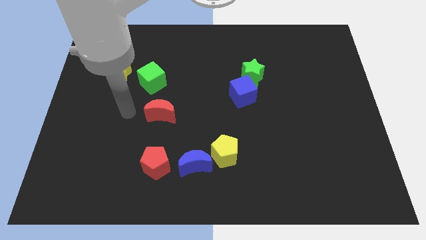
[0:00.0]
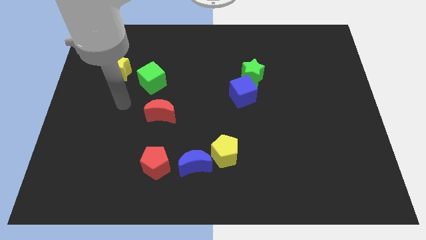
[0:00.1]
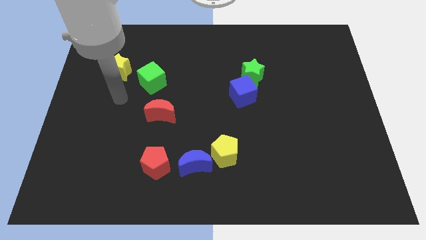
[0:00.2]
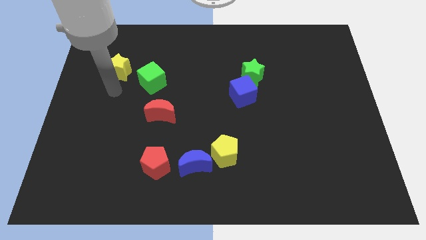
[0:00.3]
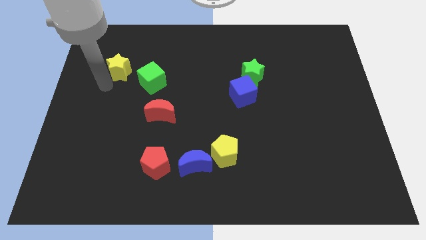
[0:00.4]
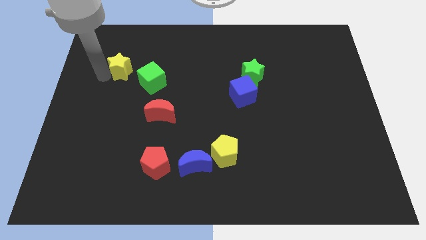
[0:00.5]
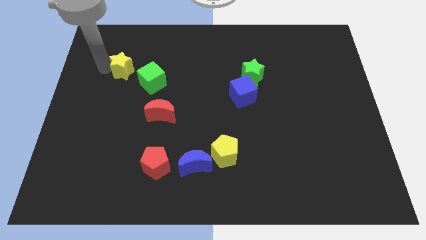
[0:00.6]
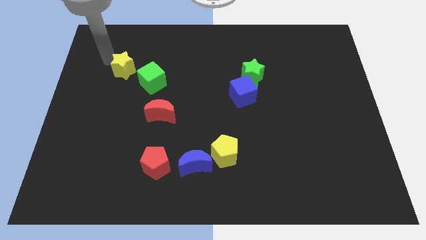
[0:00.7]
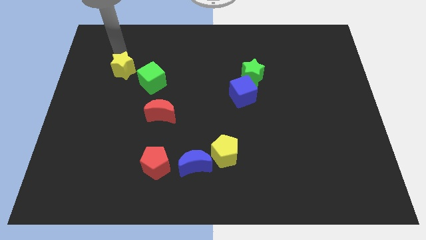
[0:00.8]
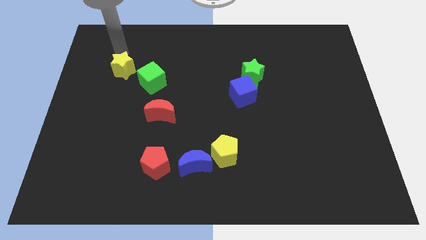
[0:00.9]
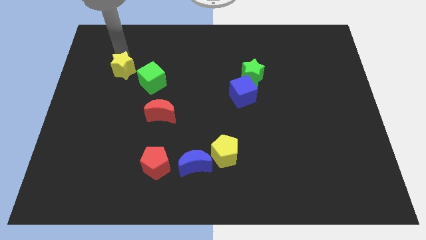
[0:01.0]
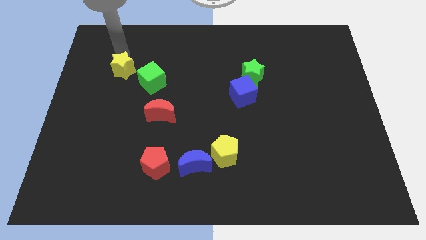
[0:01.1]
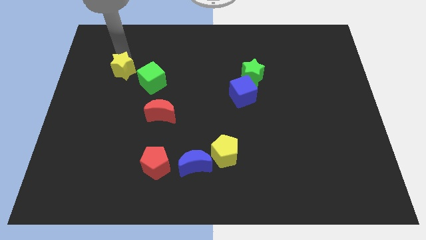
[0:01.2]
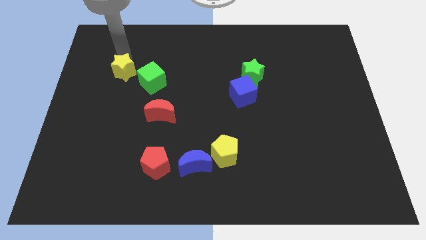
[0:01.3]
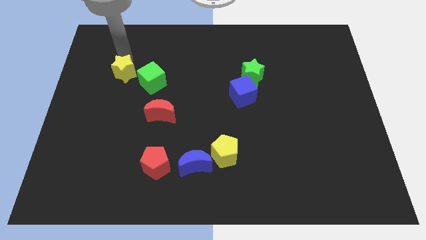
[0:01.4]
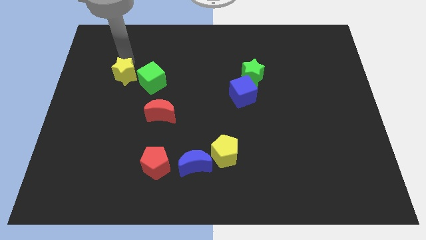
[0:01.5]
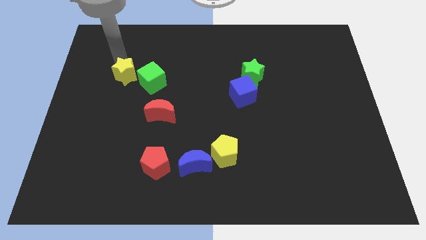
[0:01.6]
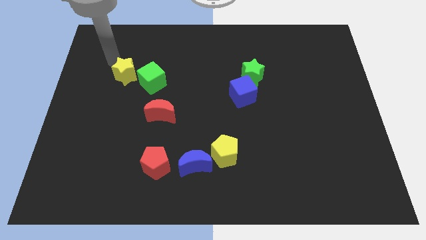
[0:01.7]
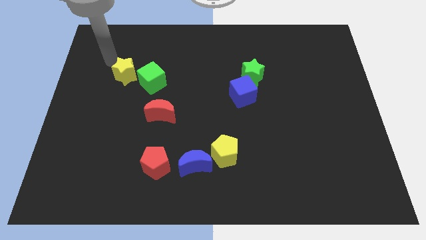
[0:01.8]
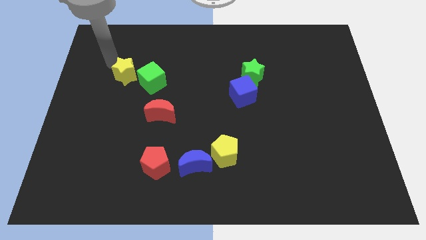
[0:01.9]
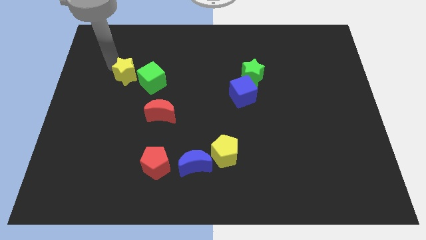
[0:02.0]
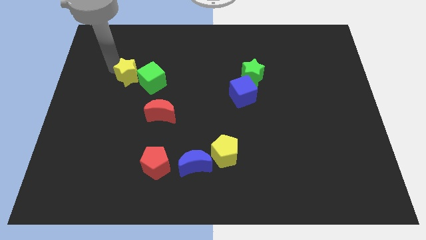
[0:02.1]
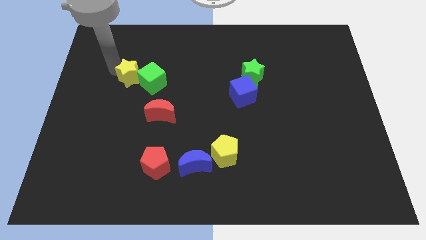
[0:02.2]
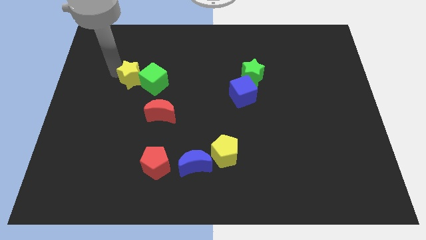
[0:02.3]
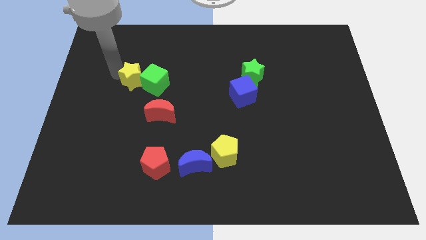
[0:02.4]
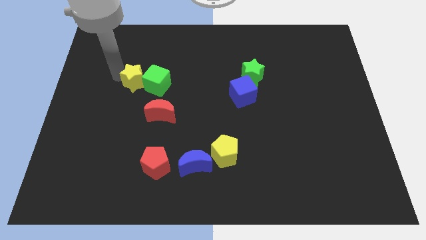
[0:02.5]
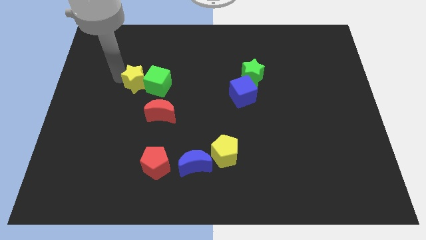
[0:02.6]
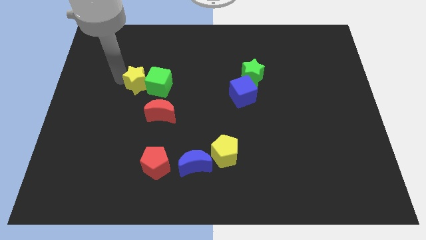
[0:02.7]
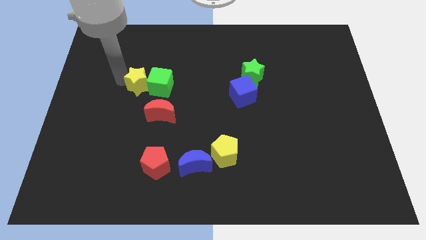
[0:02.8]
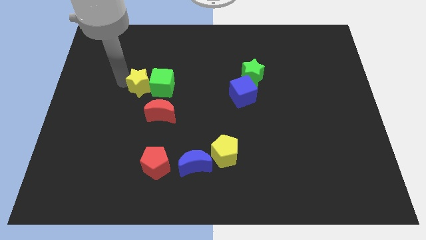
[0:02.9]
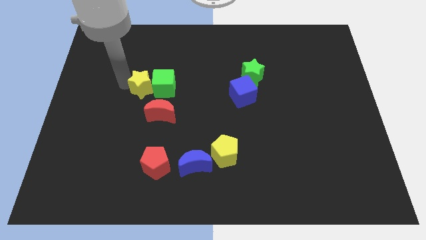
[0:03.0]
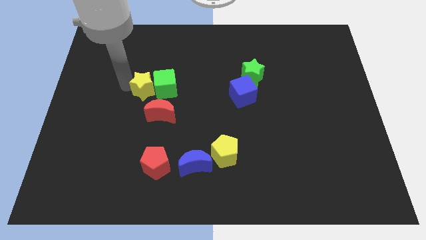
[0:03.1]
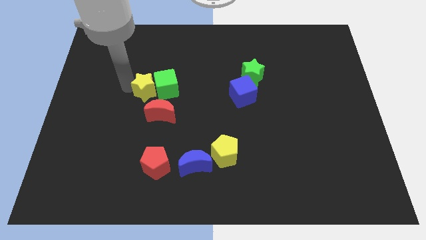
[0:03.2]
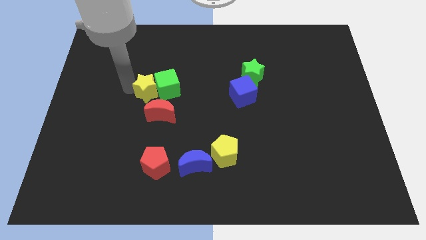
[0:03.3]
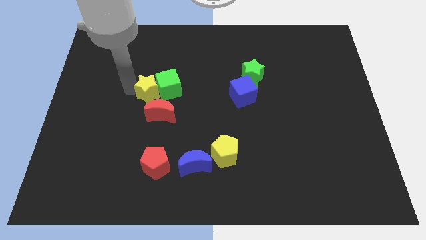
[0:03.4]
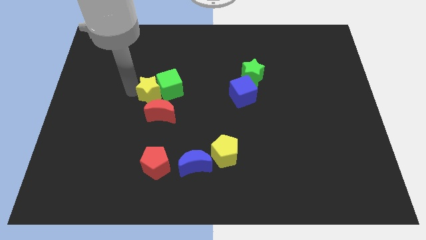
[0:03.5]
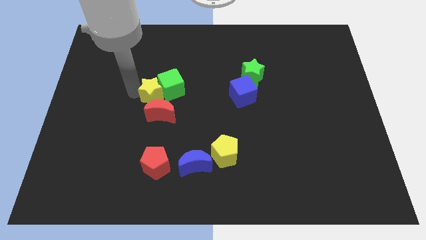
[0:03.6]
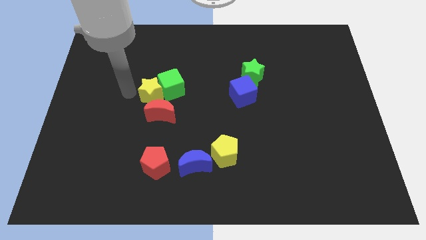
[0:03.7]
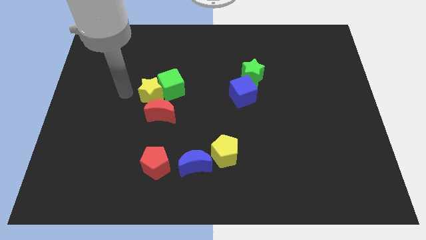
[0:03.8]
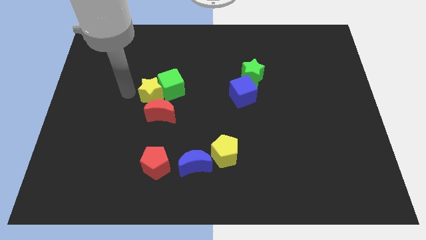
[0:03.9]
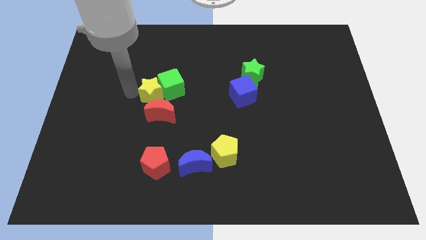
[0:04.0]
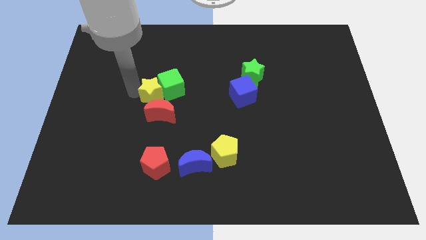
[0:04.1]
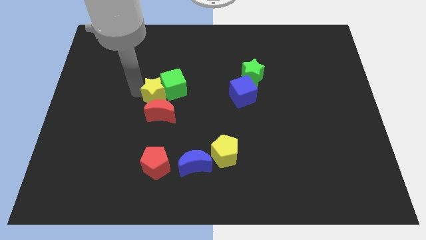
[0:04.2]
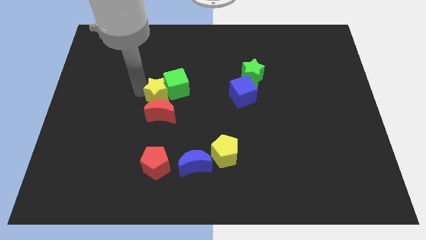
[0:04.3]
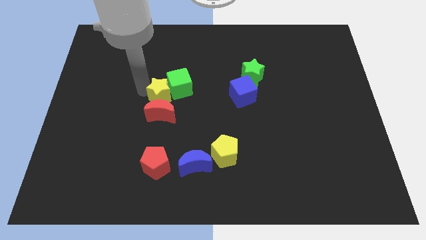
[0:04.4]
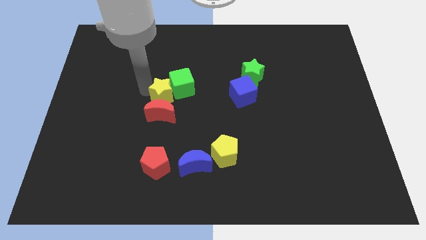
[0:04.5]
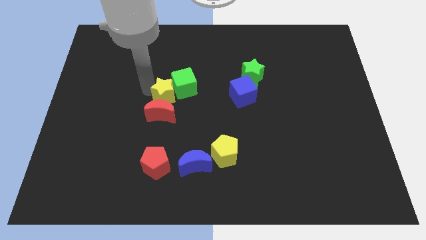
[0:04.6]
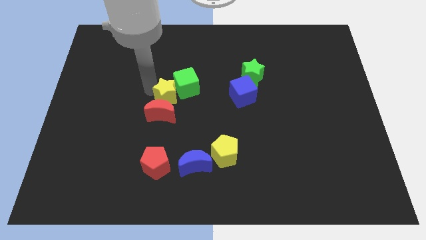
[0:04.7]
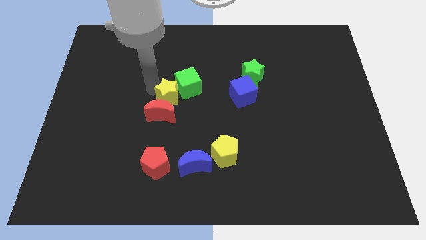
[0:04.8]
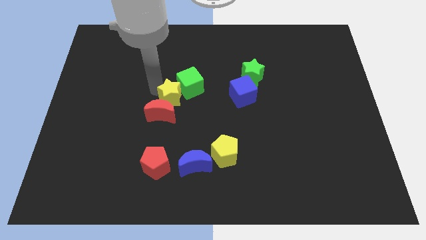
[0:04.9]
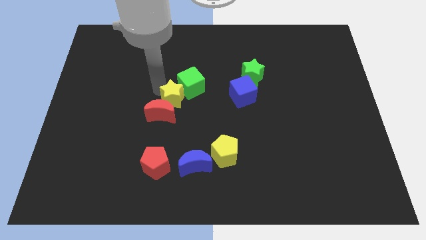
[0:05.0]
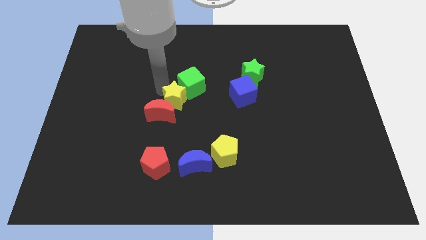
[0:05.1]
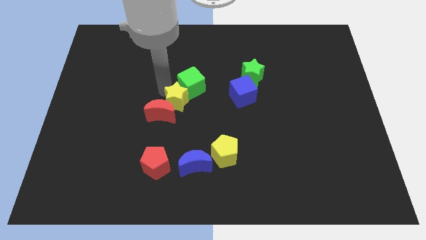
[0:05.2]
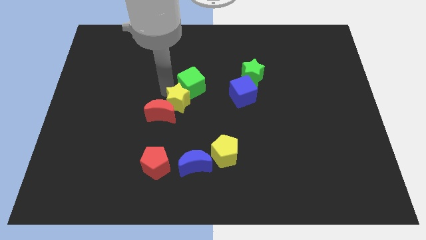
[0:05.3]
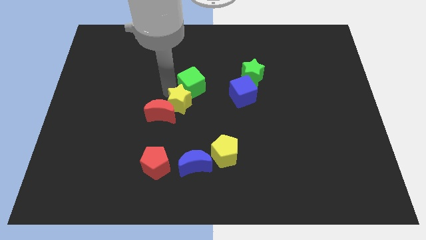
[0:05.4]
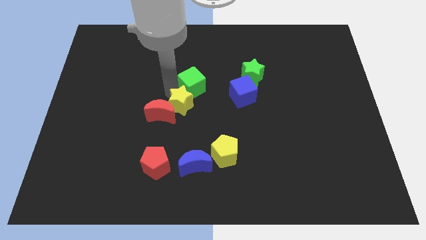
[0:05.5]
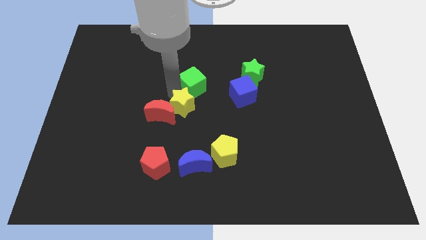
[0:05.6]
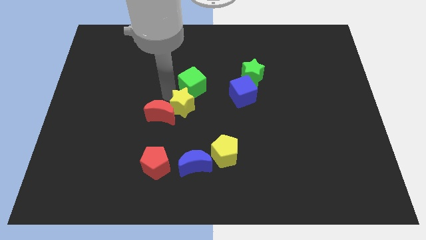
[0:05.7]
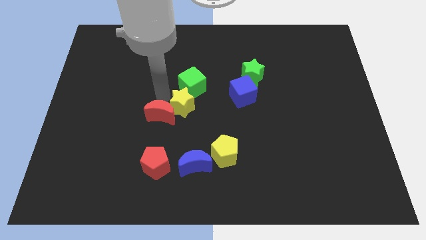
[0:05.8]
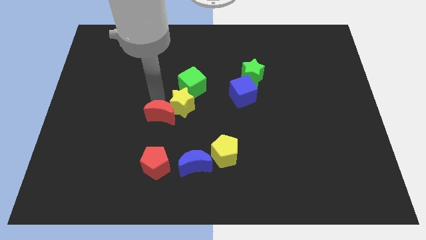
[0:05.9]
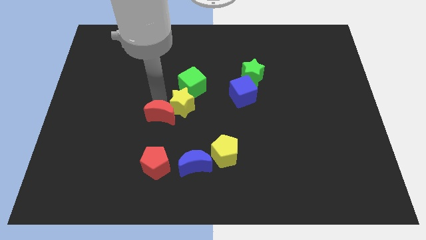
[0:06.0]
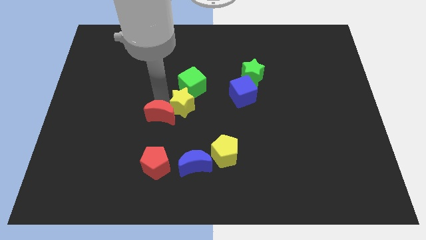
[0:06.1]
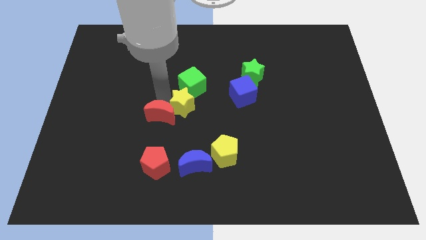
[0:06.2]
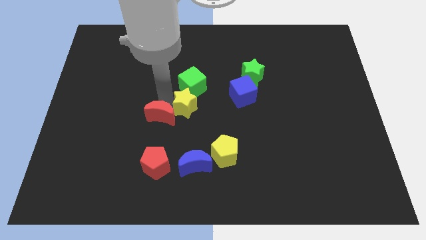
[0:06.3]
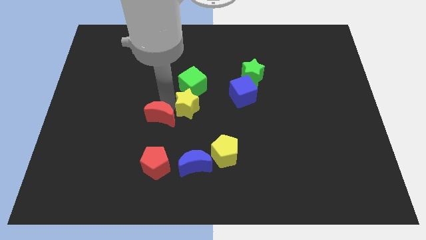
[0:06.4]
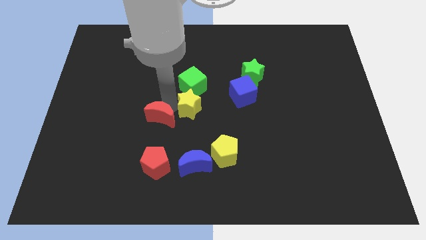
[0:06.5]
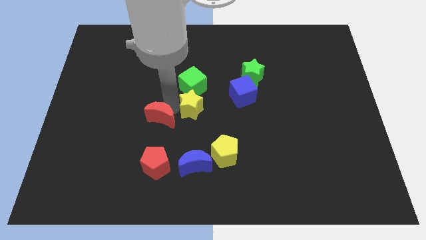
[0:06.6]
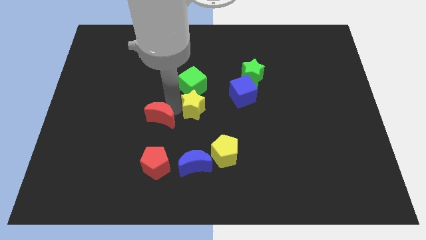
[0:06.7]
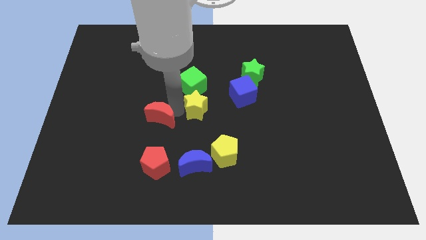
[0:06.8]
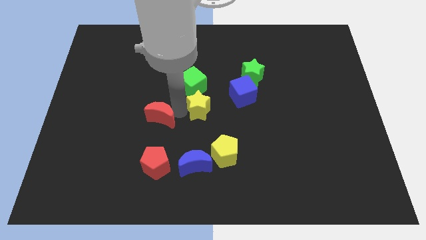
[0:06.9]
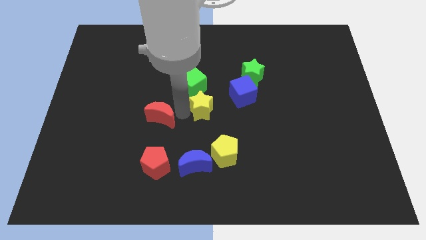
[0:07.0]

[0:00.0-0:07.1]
move the yellow star to the bottom left side of the blue cube
